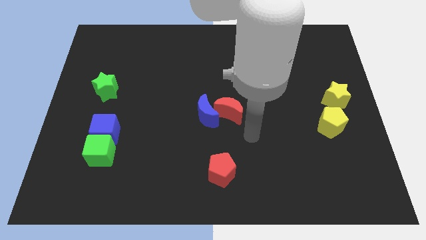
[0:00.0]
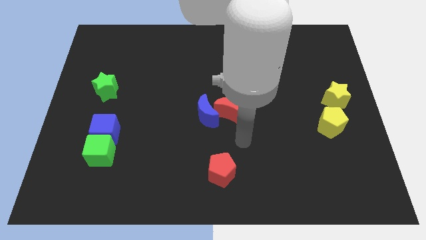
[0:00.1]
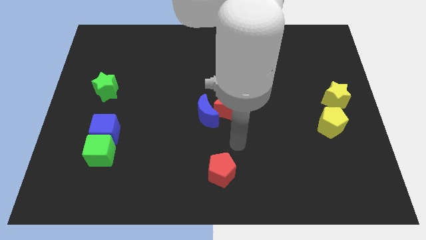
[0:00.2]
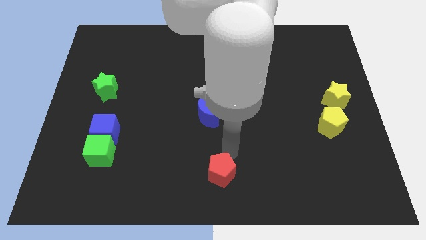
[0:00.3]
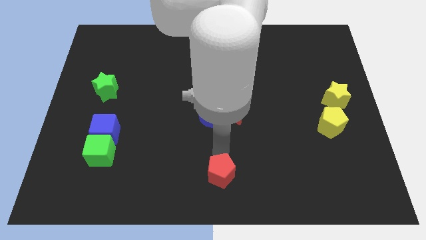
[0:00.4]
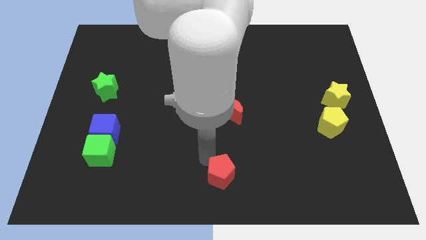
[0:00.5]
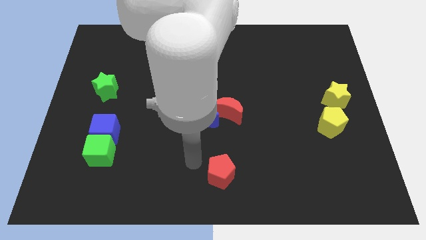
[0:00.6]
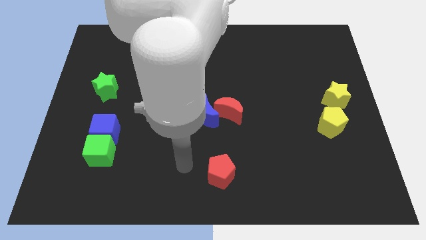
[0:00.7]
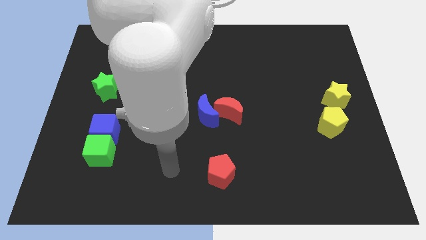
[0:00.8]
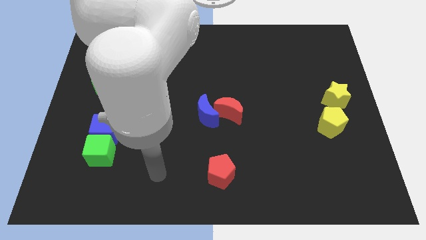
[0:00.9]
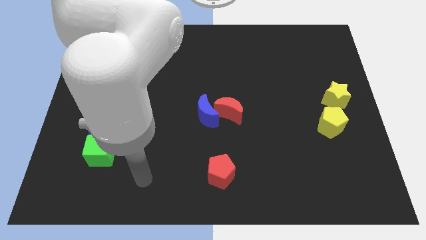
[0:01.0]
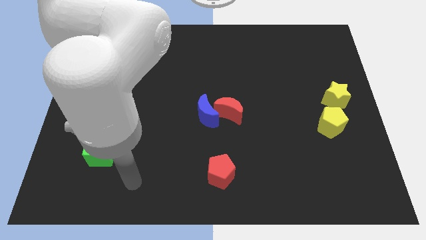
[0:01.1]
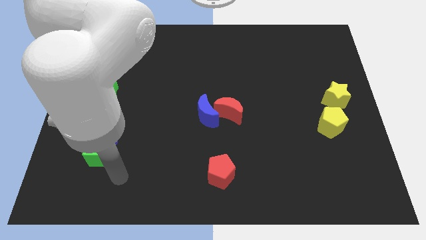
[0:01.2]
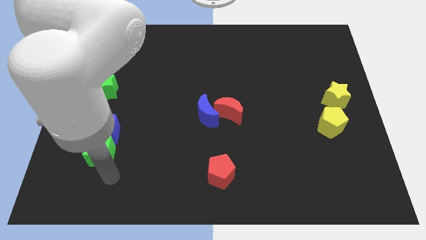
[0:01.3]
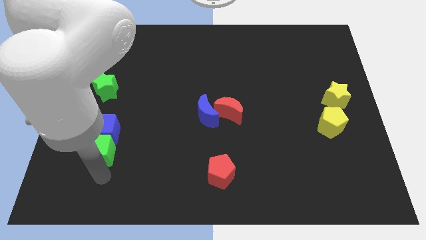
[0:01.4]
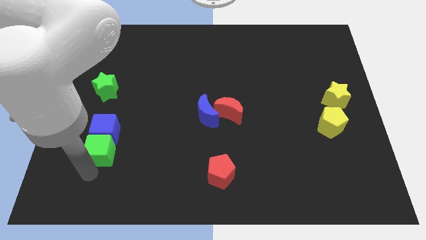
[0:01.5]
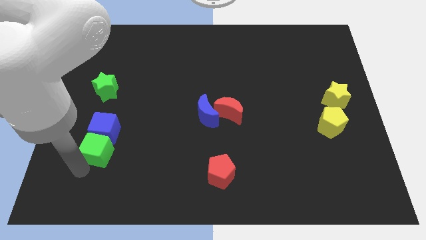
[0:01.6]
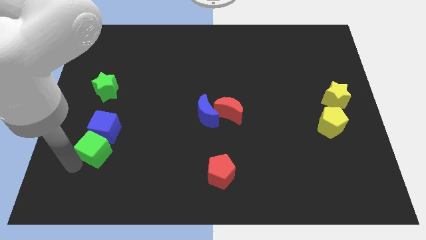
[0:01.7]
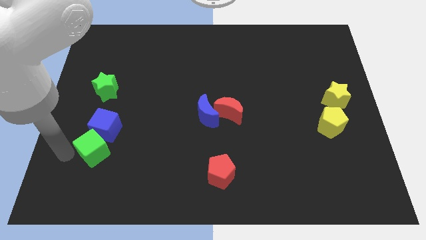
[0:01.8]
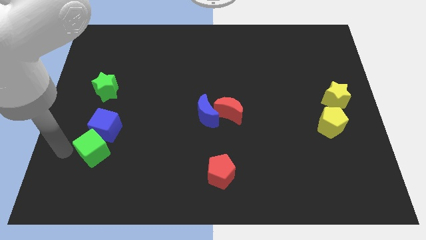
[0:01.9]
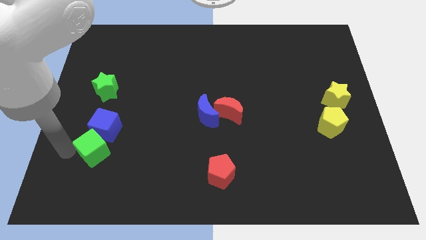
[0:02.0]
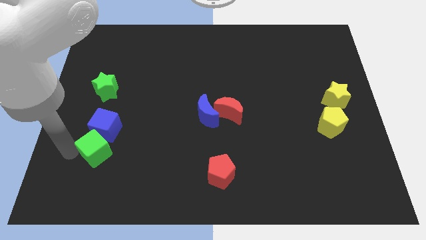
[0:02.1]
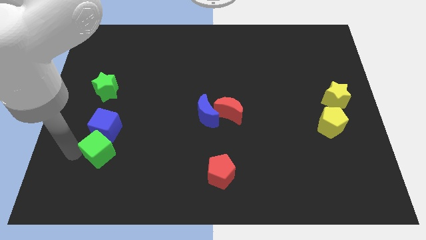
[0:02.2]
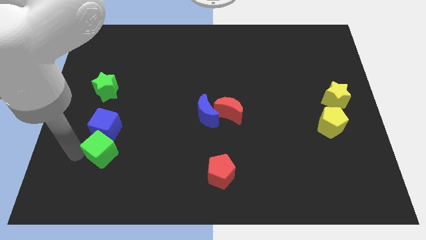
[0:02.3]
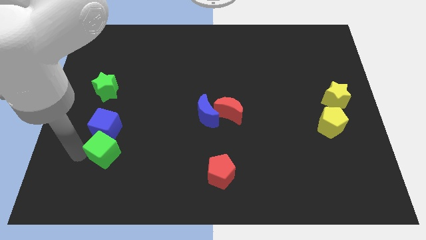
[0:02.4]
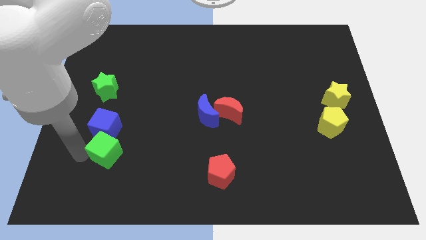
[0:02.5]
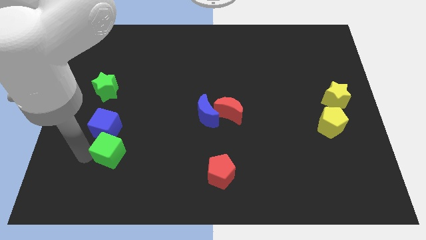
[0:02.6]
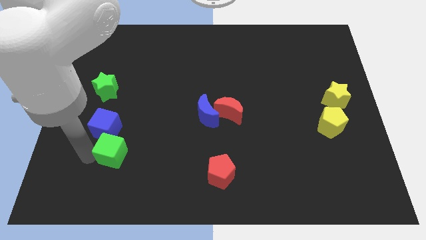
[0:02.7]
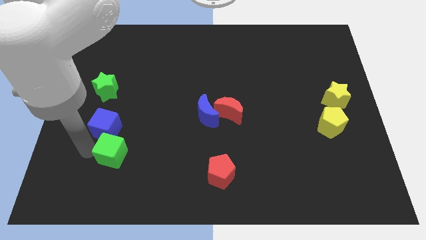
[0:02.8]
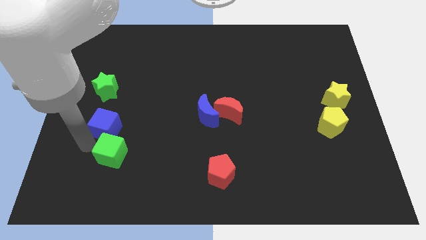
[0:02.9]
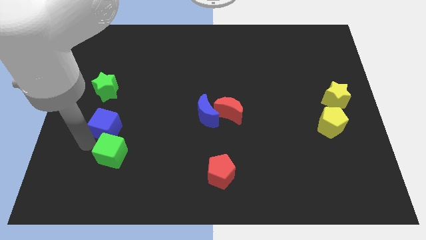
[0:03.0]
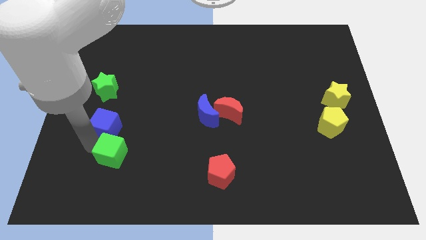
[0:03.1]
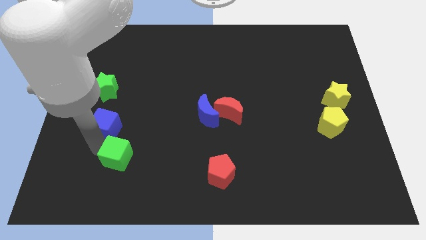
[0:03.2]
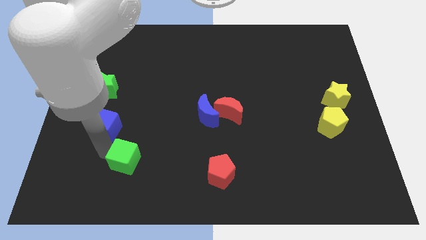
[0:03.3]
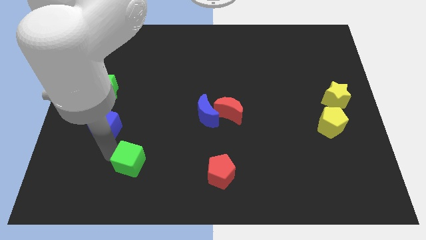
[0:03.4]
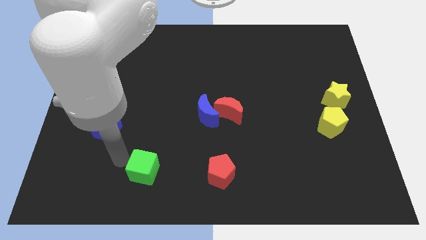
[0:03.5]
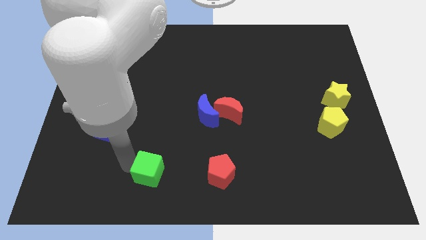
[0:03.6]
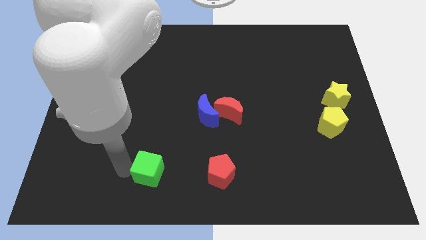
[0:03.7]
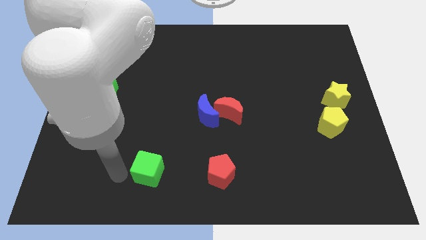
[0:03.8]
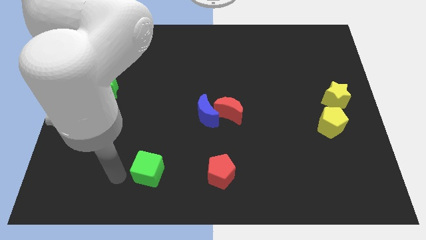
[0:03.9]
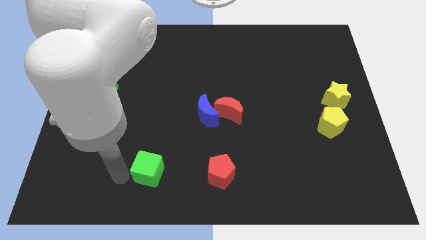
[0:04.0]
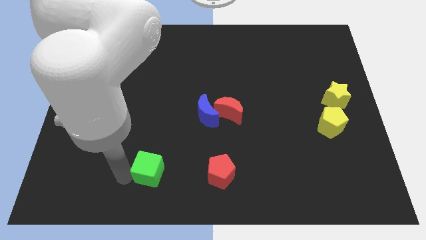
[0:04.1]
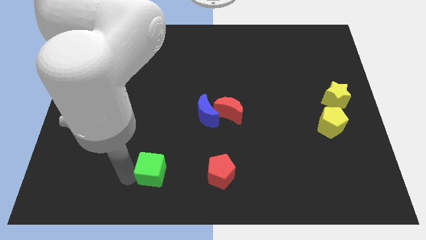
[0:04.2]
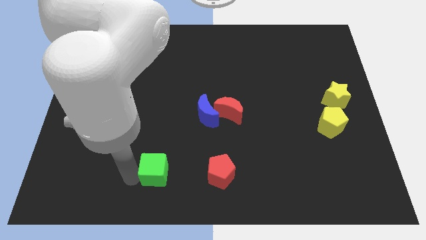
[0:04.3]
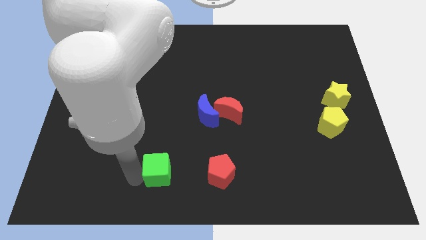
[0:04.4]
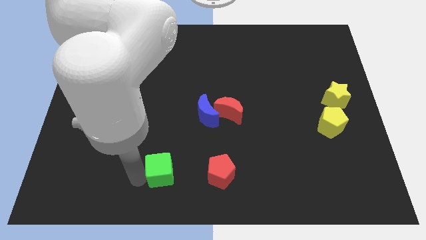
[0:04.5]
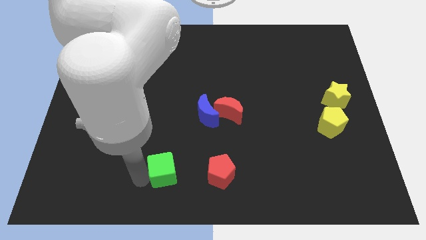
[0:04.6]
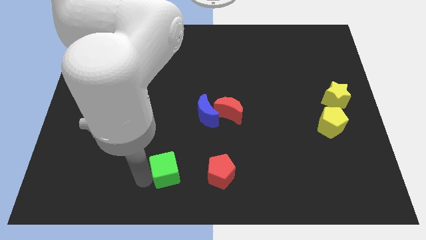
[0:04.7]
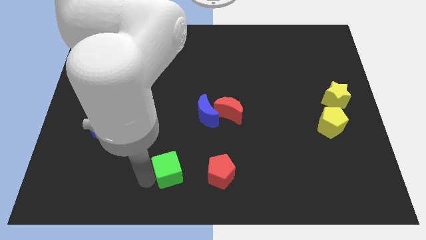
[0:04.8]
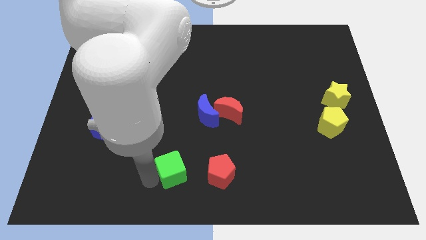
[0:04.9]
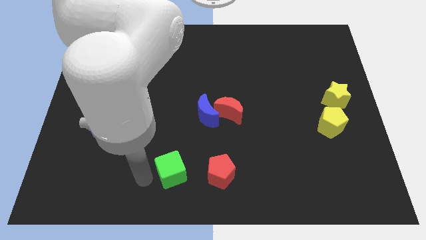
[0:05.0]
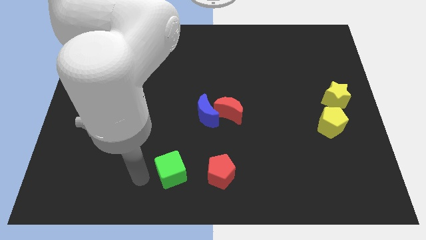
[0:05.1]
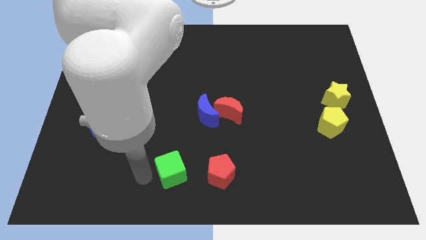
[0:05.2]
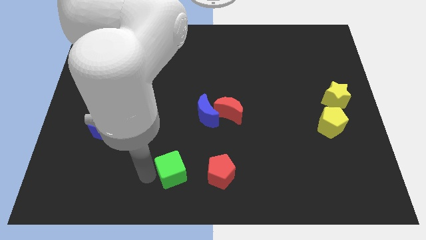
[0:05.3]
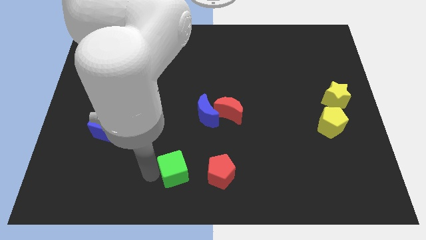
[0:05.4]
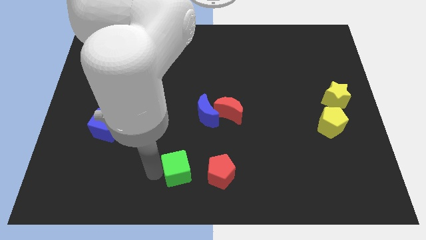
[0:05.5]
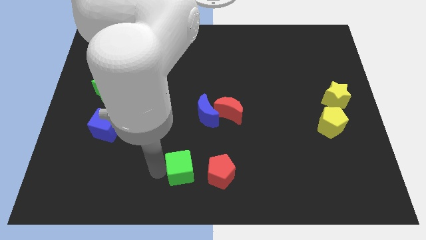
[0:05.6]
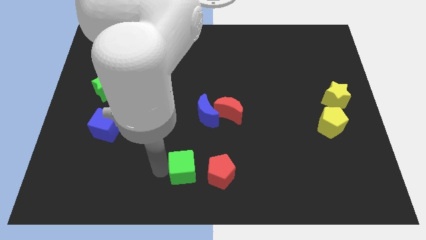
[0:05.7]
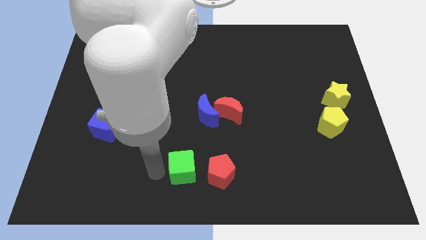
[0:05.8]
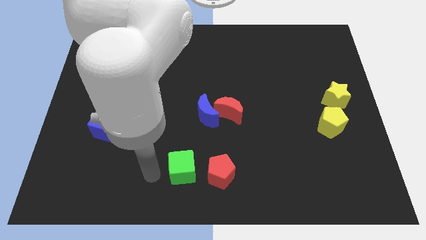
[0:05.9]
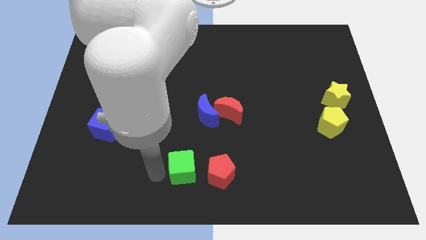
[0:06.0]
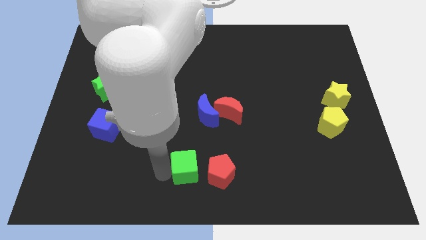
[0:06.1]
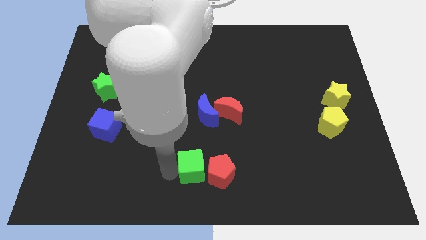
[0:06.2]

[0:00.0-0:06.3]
put the green cube to the red pentagon
